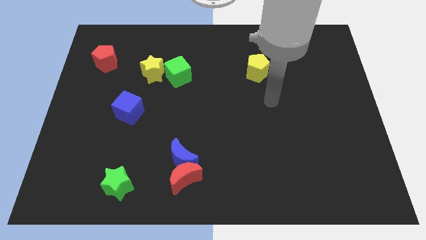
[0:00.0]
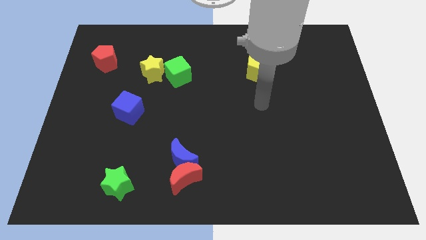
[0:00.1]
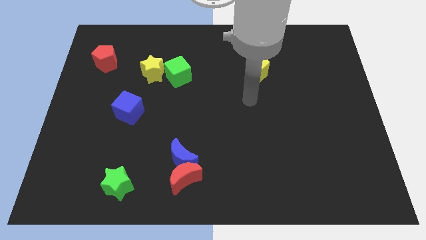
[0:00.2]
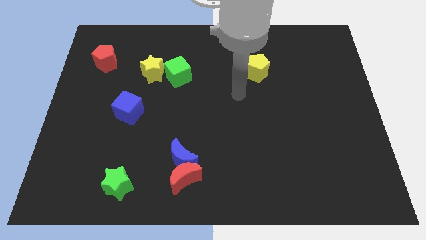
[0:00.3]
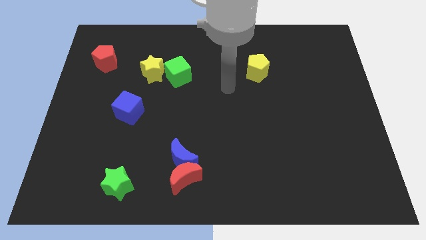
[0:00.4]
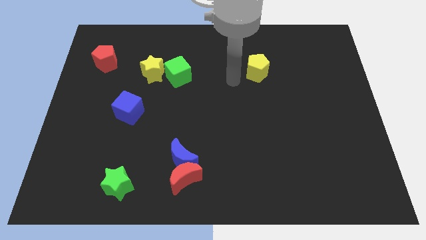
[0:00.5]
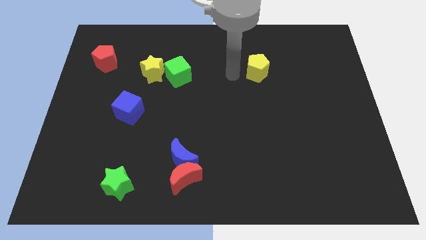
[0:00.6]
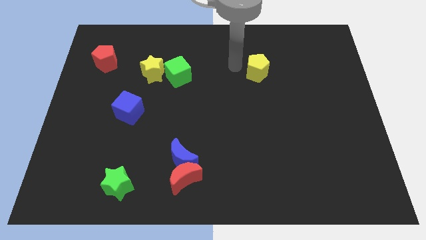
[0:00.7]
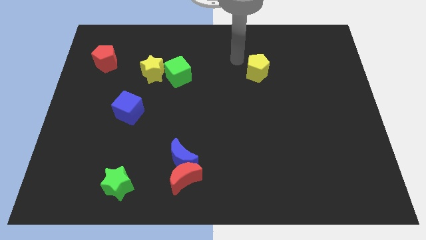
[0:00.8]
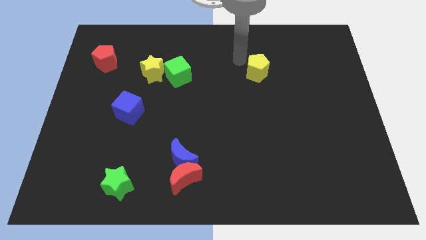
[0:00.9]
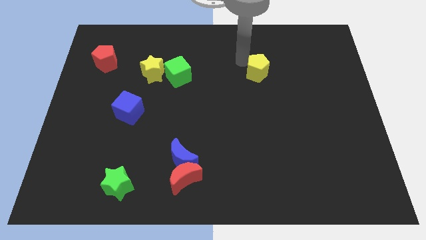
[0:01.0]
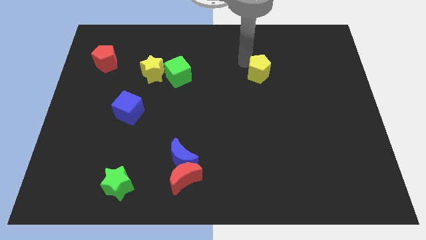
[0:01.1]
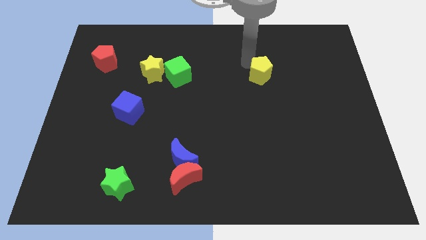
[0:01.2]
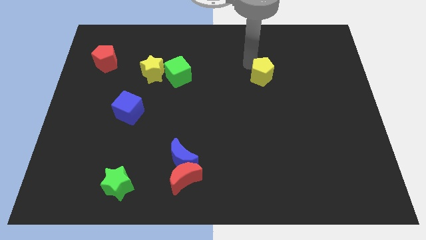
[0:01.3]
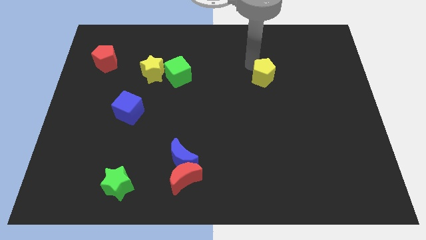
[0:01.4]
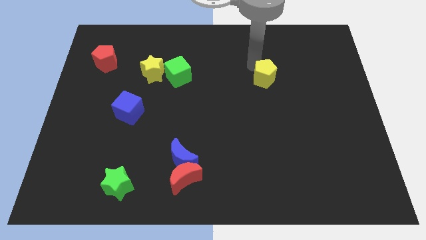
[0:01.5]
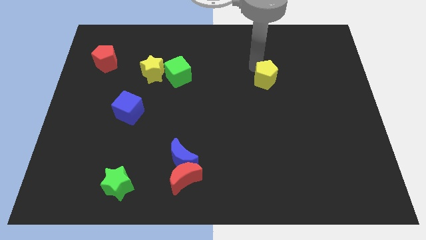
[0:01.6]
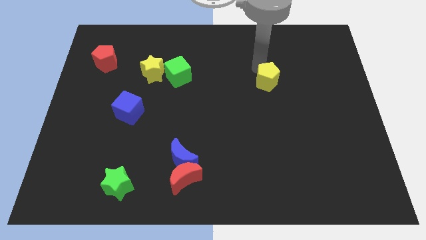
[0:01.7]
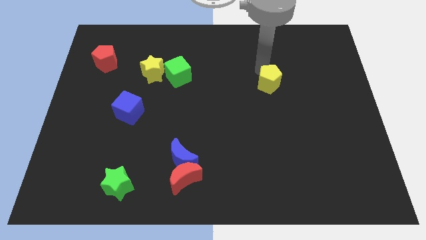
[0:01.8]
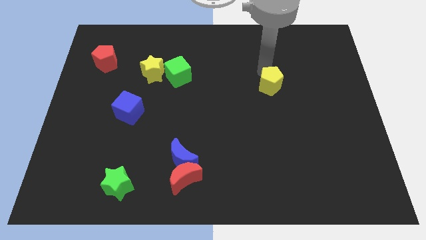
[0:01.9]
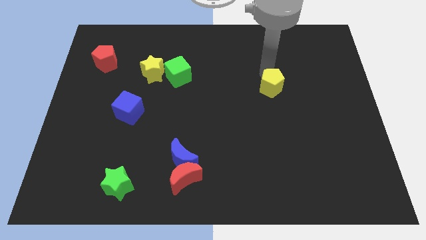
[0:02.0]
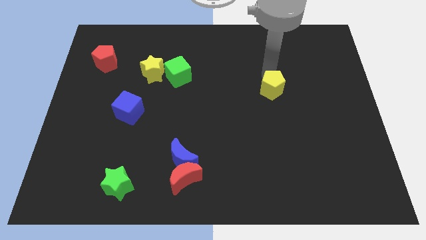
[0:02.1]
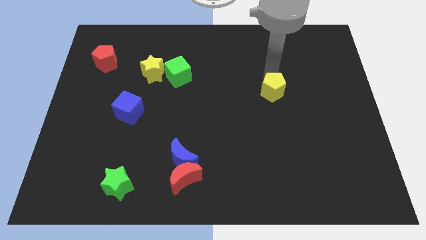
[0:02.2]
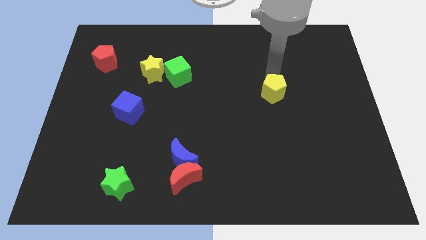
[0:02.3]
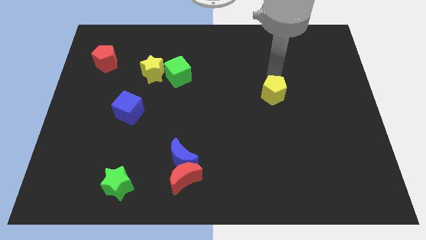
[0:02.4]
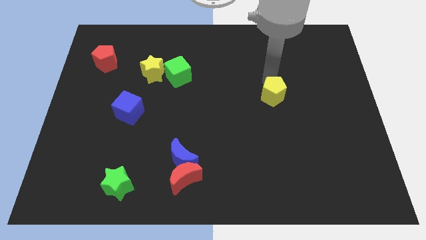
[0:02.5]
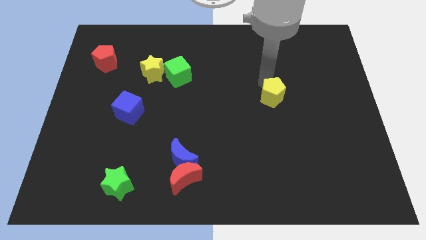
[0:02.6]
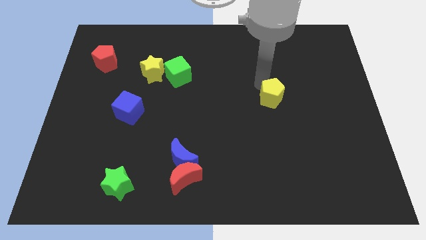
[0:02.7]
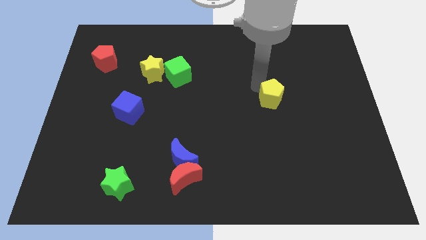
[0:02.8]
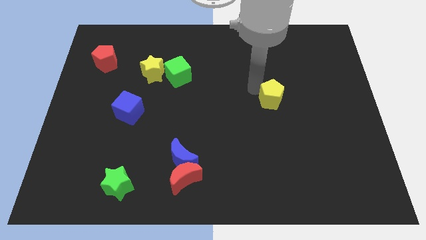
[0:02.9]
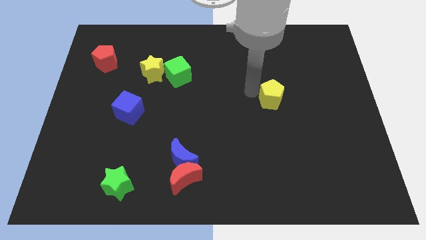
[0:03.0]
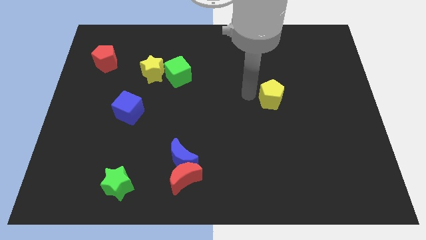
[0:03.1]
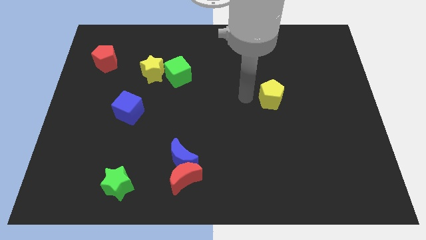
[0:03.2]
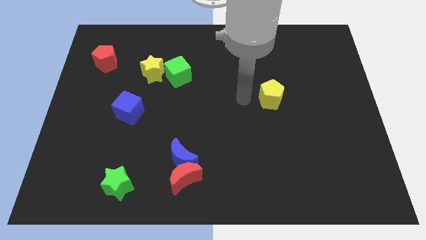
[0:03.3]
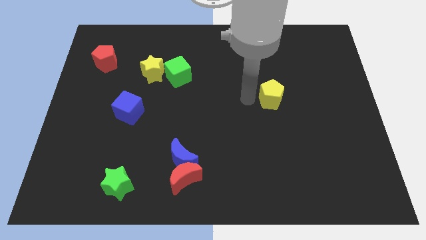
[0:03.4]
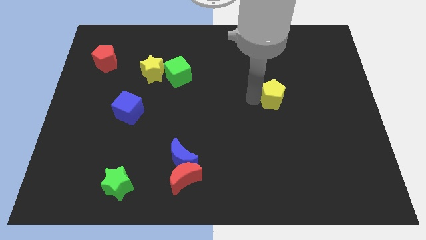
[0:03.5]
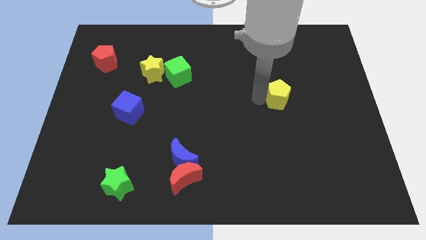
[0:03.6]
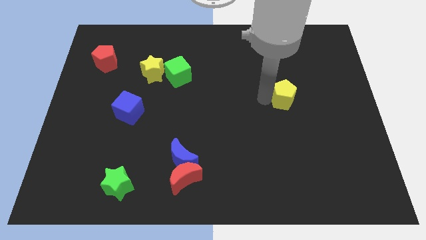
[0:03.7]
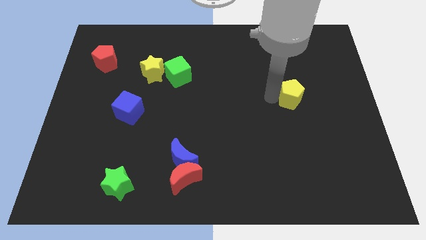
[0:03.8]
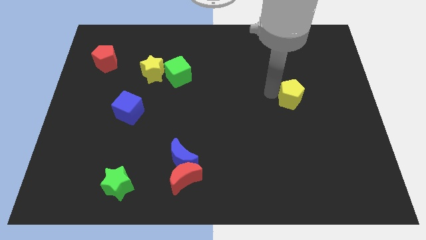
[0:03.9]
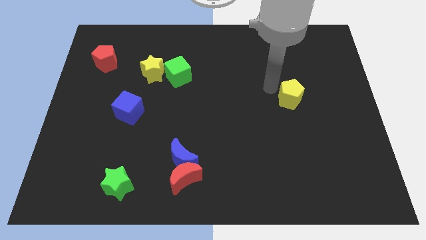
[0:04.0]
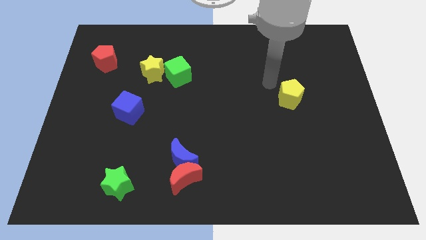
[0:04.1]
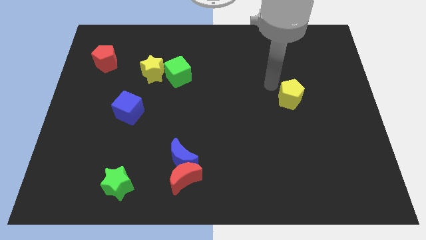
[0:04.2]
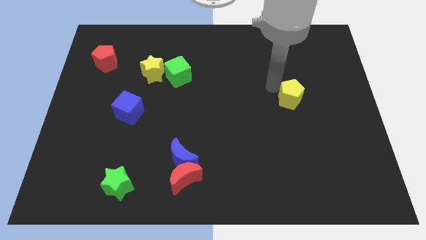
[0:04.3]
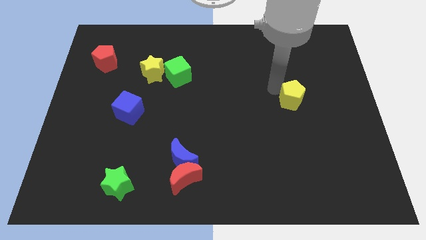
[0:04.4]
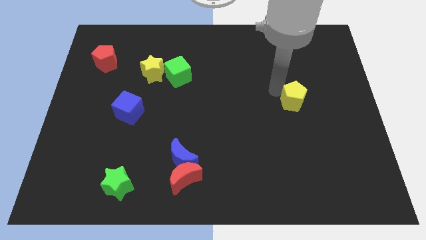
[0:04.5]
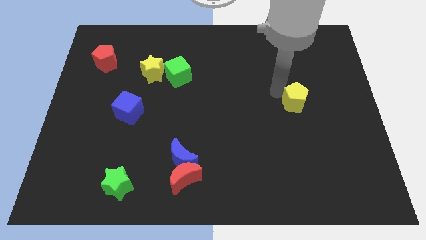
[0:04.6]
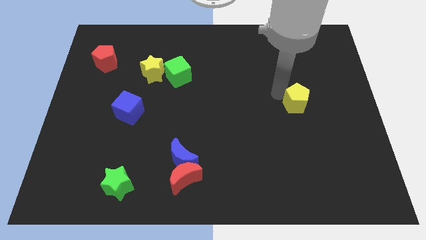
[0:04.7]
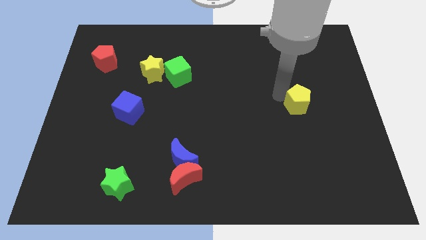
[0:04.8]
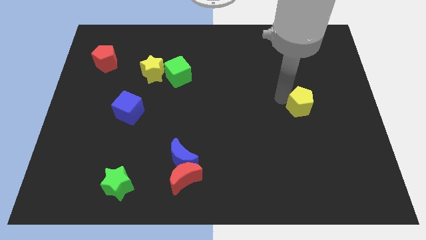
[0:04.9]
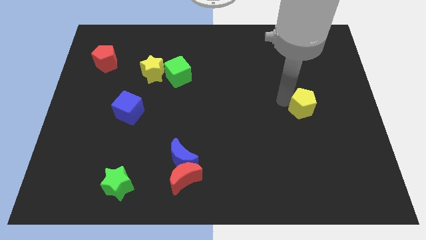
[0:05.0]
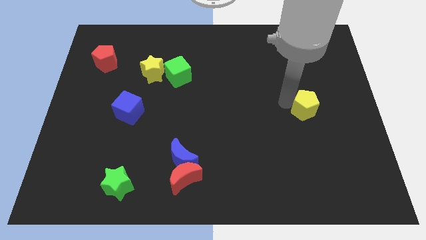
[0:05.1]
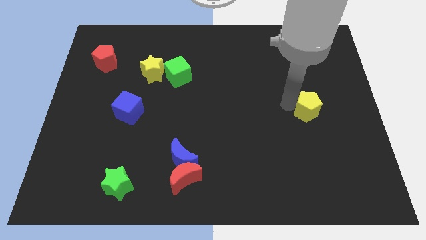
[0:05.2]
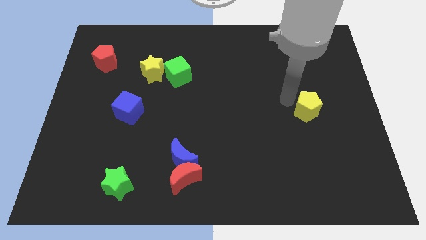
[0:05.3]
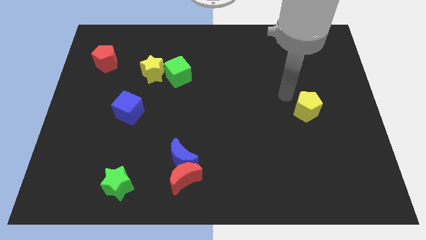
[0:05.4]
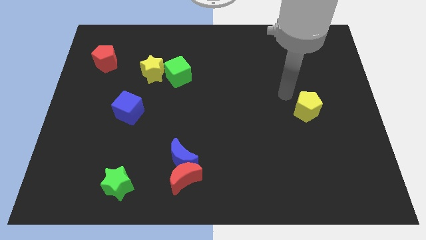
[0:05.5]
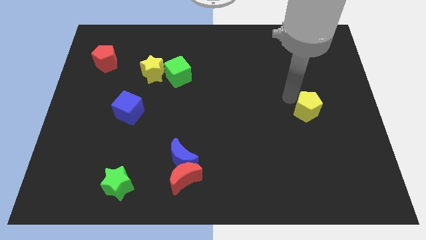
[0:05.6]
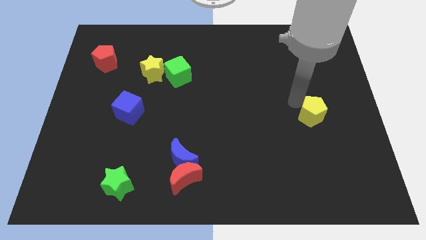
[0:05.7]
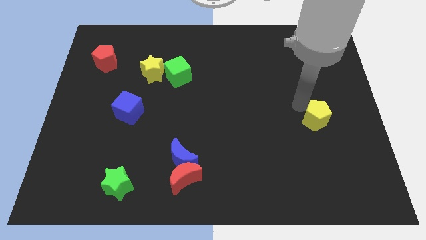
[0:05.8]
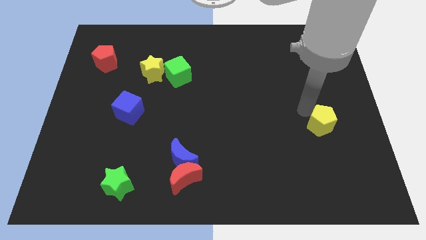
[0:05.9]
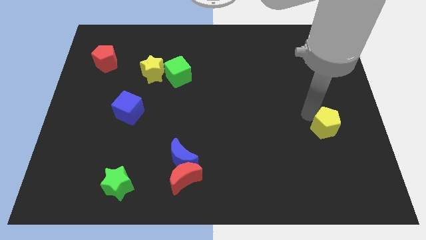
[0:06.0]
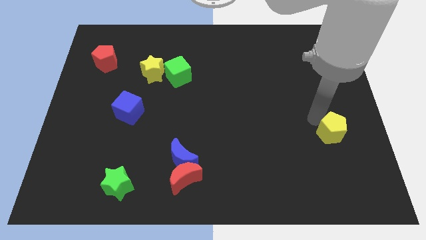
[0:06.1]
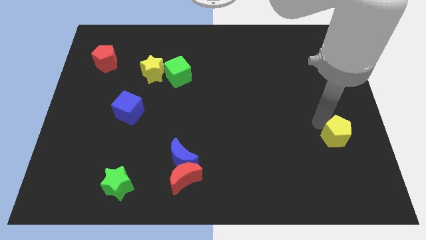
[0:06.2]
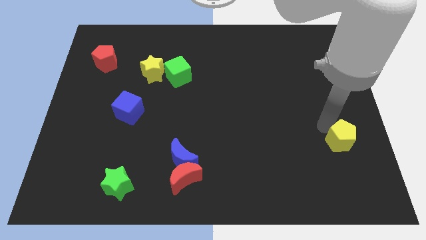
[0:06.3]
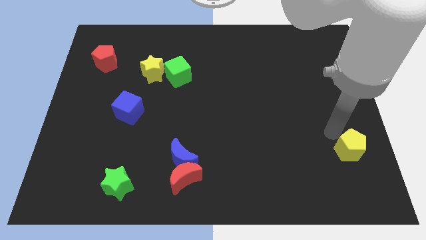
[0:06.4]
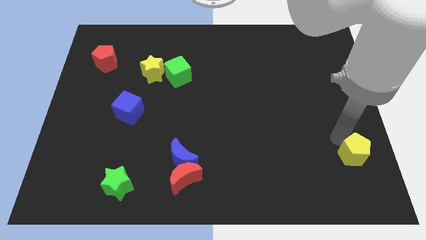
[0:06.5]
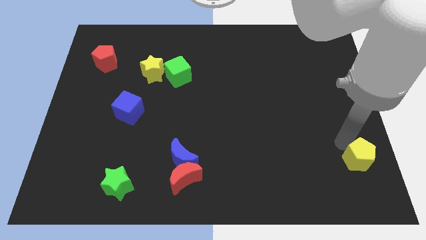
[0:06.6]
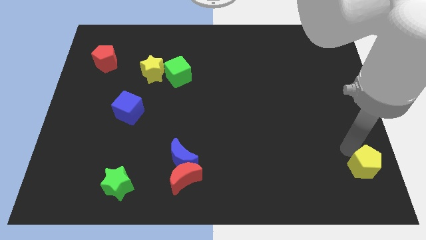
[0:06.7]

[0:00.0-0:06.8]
slide the yellow pentagon to the bottom right of the board

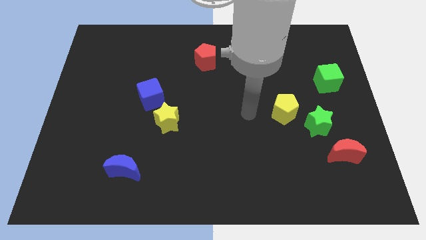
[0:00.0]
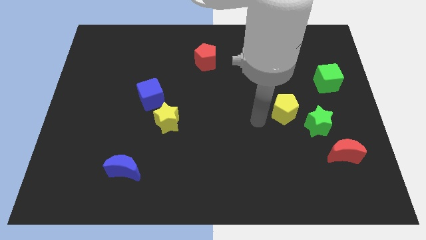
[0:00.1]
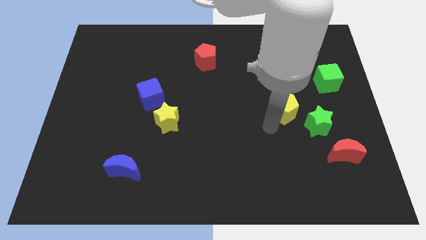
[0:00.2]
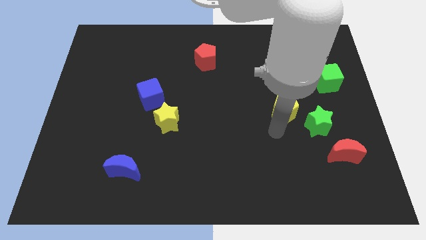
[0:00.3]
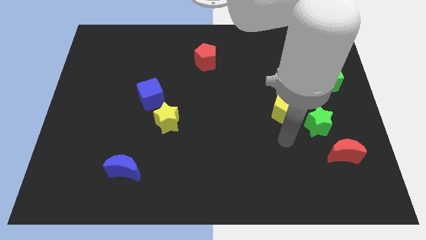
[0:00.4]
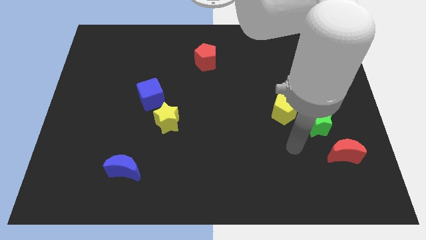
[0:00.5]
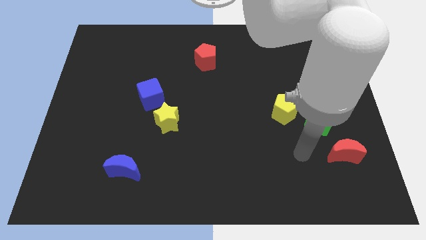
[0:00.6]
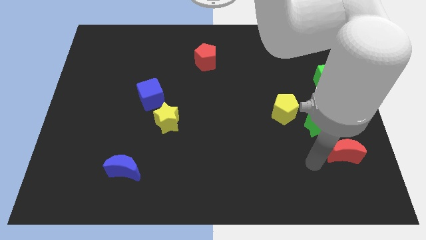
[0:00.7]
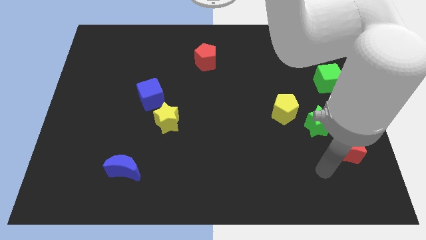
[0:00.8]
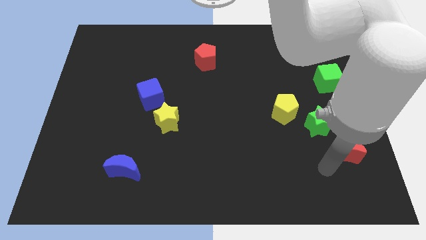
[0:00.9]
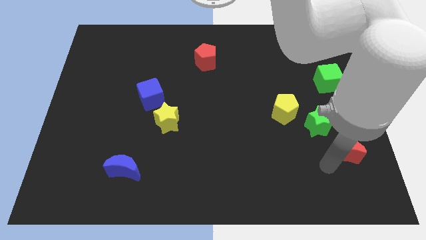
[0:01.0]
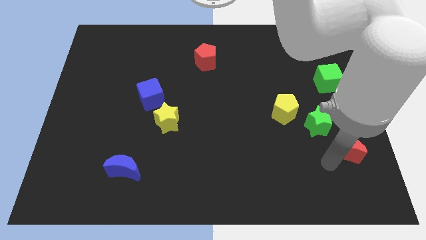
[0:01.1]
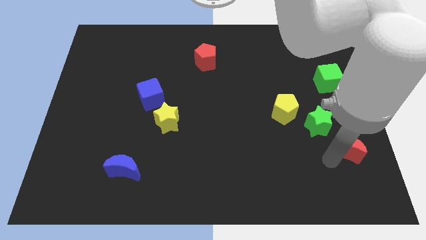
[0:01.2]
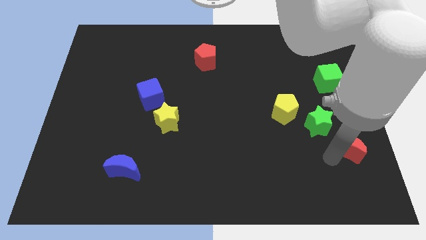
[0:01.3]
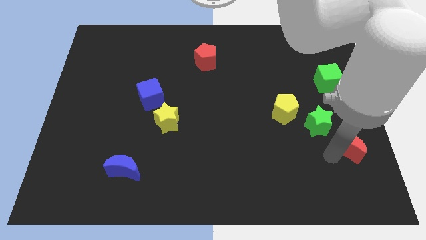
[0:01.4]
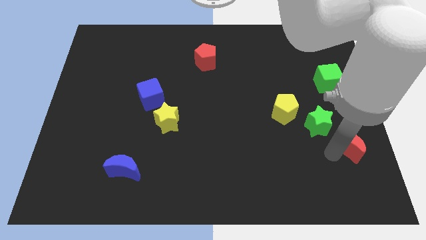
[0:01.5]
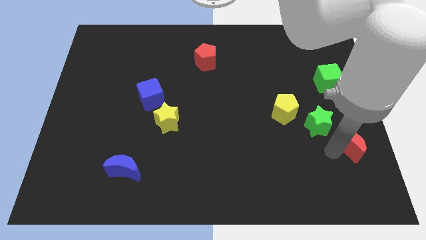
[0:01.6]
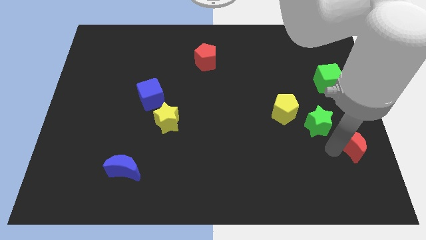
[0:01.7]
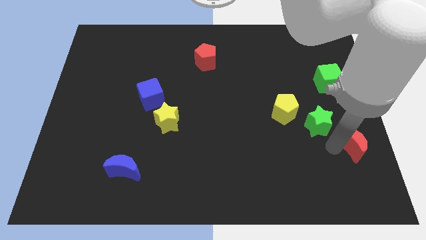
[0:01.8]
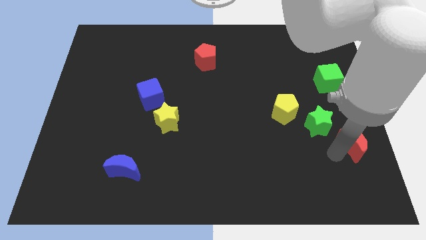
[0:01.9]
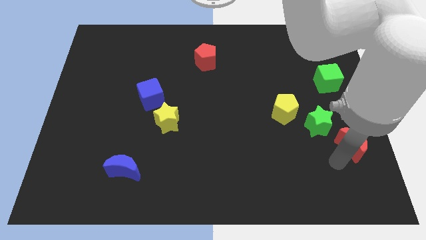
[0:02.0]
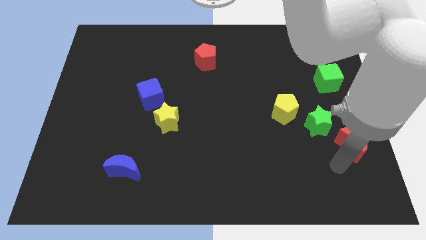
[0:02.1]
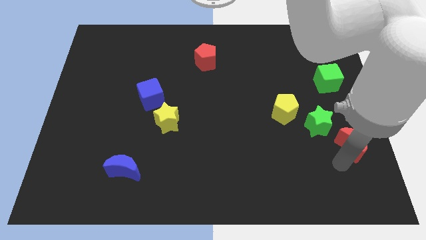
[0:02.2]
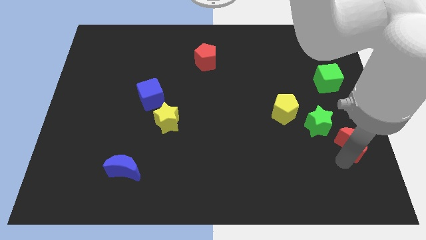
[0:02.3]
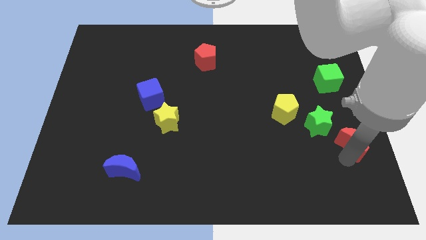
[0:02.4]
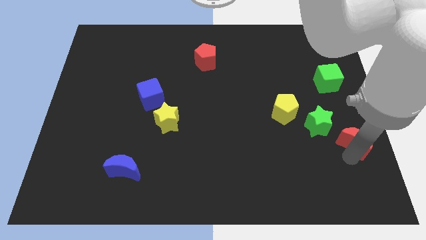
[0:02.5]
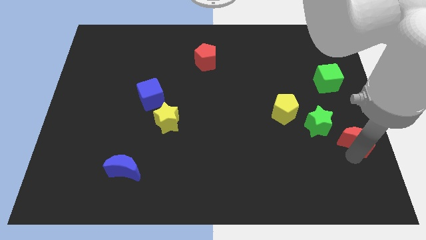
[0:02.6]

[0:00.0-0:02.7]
put the red moon to the center right
